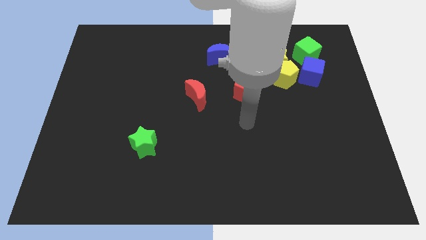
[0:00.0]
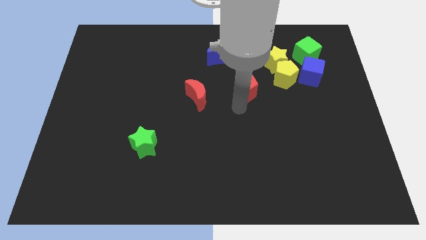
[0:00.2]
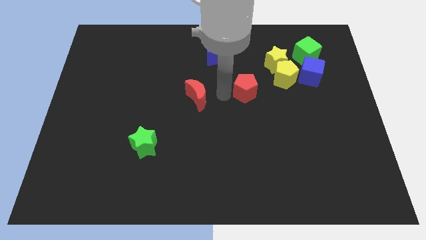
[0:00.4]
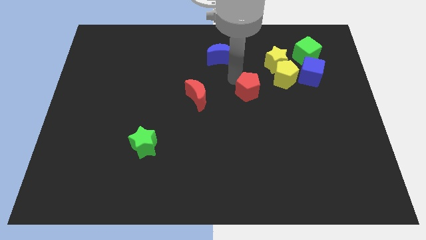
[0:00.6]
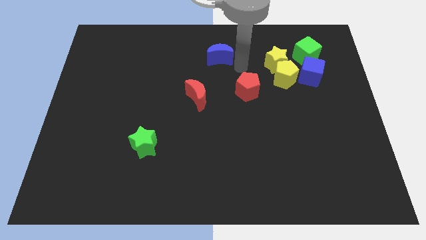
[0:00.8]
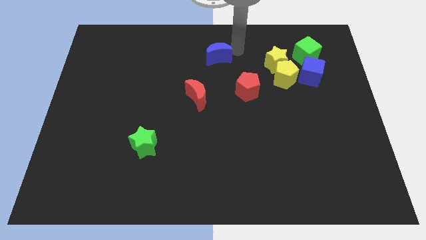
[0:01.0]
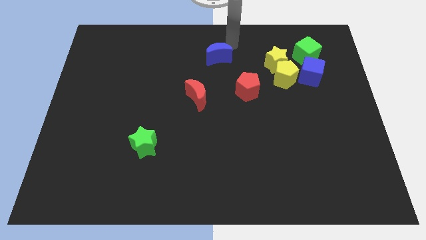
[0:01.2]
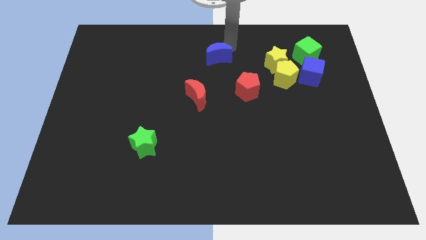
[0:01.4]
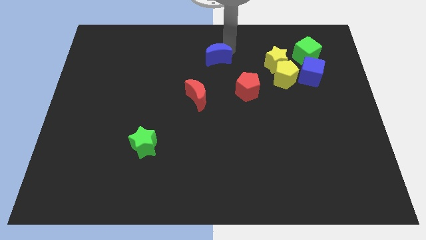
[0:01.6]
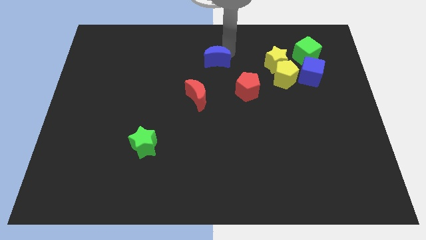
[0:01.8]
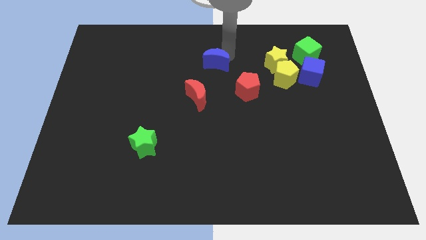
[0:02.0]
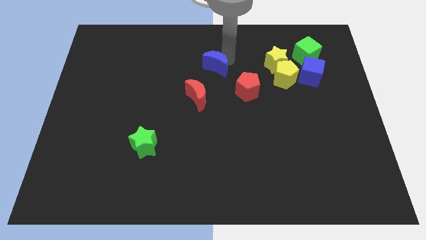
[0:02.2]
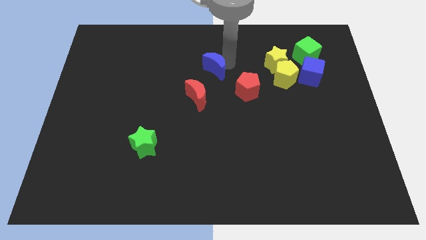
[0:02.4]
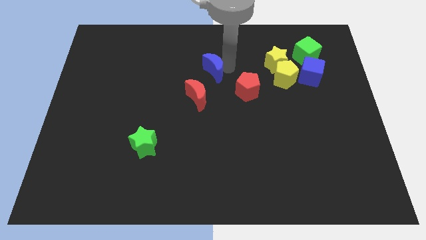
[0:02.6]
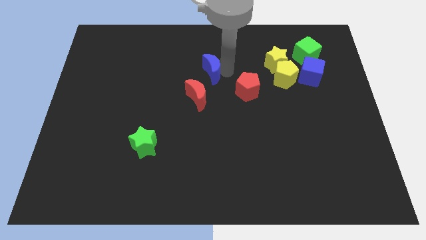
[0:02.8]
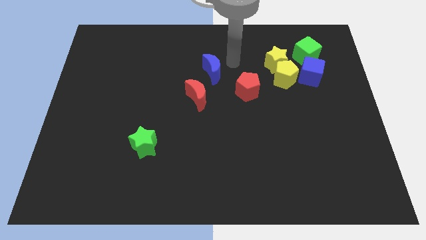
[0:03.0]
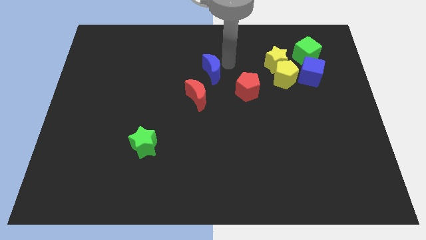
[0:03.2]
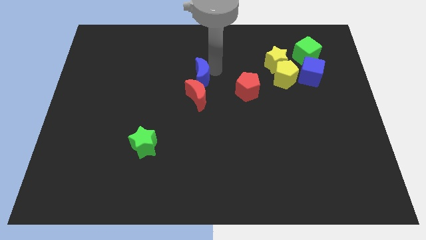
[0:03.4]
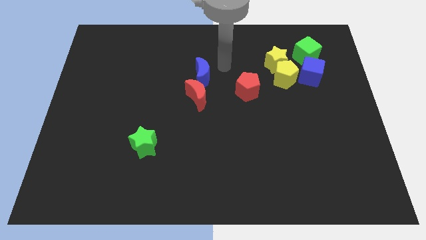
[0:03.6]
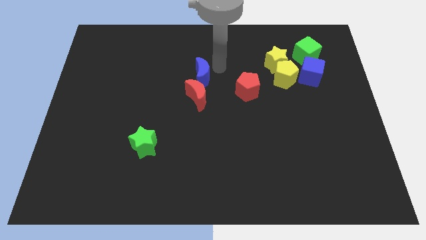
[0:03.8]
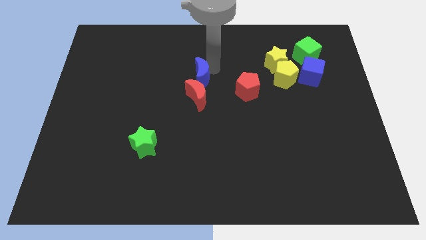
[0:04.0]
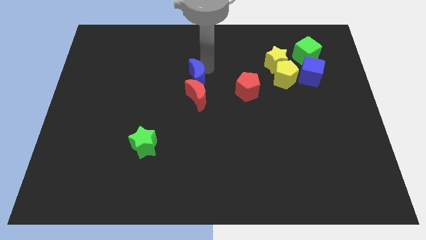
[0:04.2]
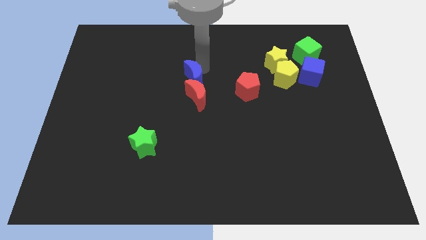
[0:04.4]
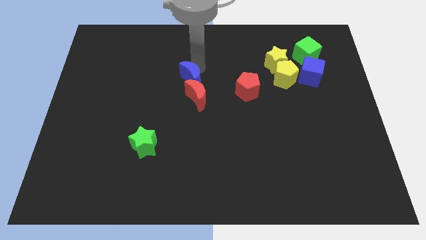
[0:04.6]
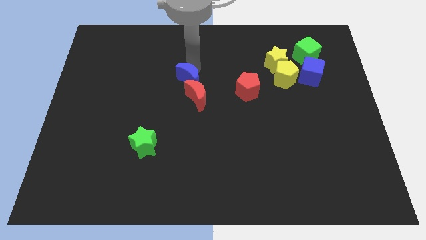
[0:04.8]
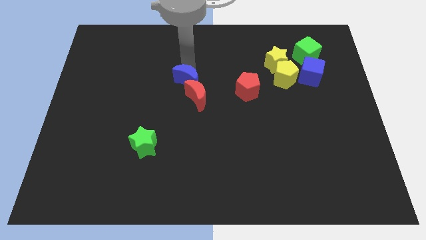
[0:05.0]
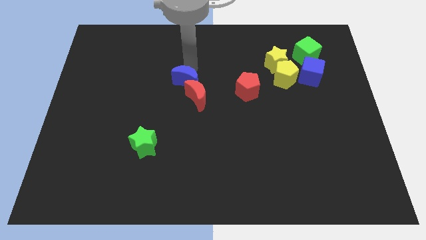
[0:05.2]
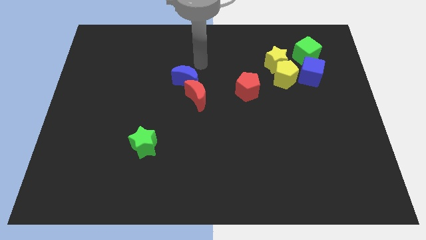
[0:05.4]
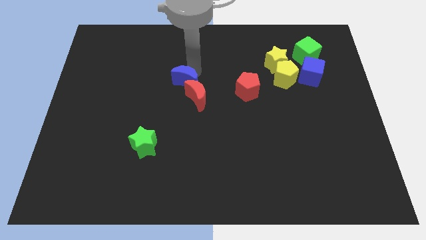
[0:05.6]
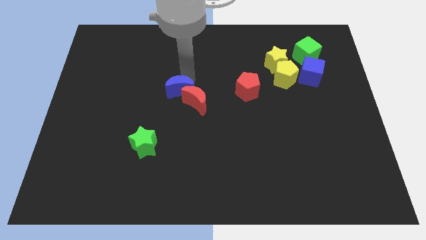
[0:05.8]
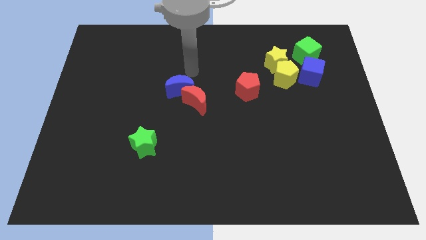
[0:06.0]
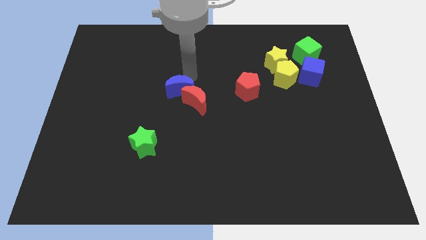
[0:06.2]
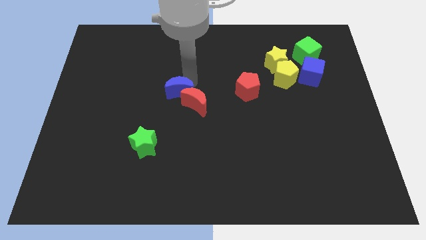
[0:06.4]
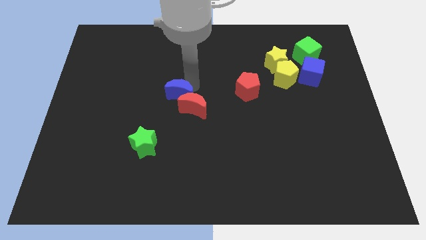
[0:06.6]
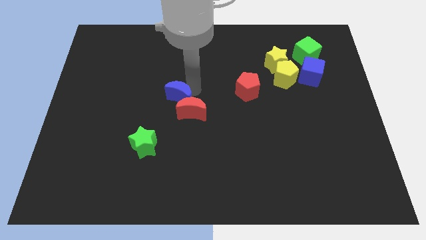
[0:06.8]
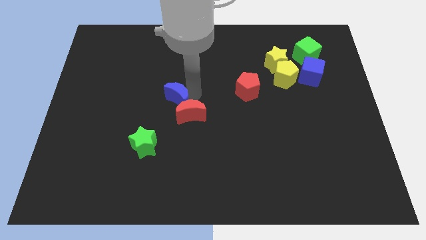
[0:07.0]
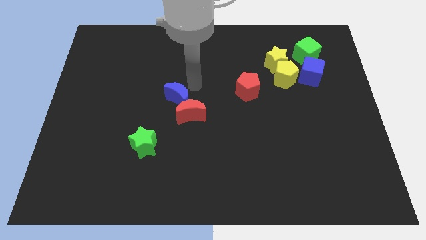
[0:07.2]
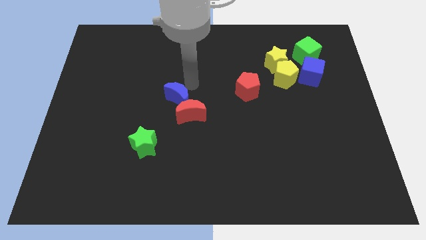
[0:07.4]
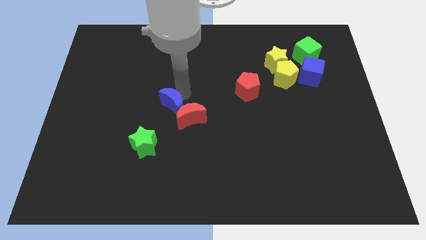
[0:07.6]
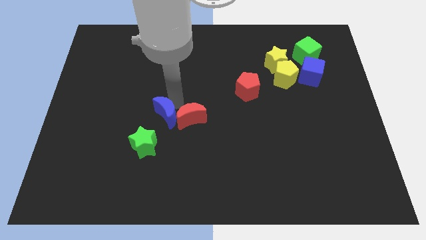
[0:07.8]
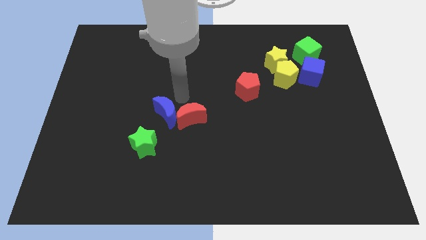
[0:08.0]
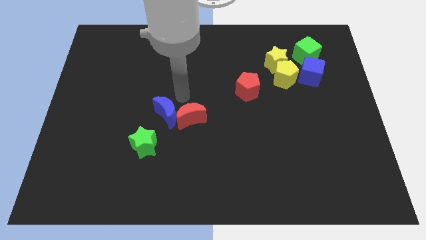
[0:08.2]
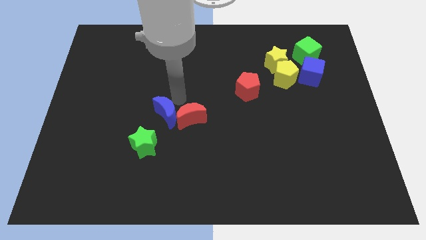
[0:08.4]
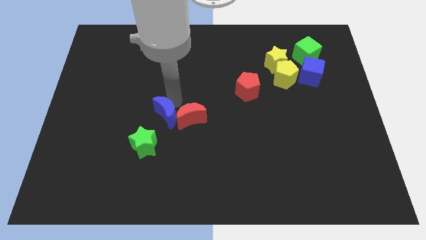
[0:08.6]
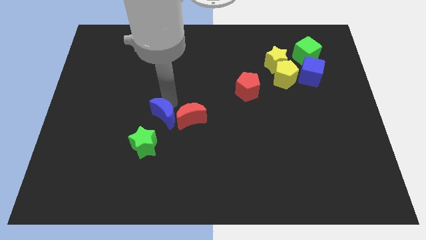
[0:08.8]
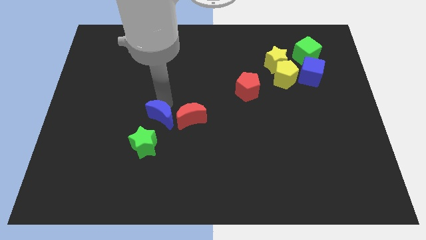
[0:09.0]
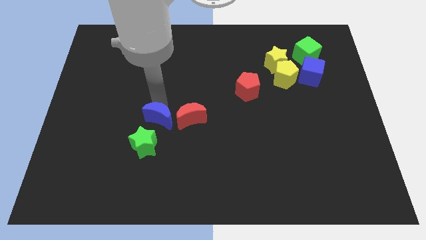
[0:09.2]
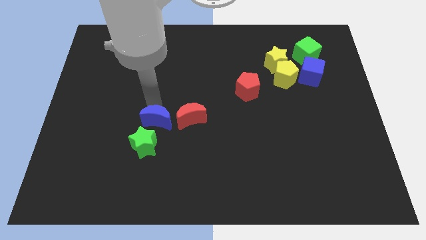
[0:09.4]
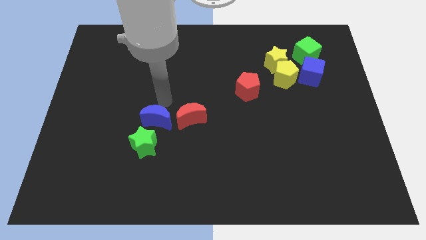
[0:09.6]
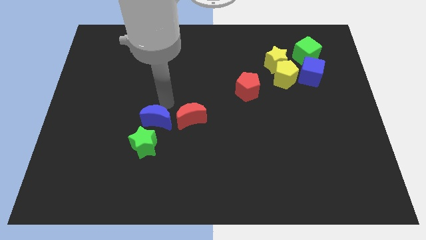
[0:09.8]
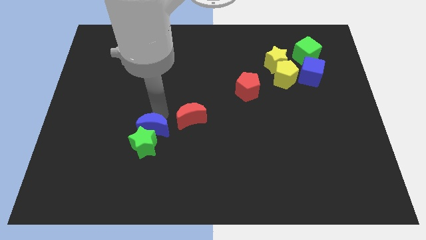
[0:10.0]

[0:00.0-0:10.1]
move the blue moon close to the green star

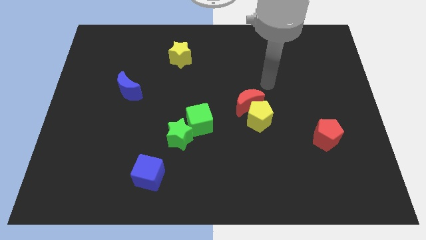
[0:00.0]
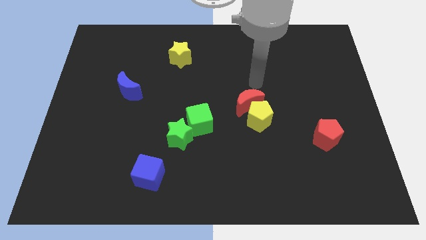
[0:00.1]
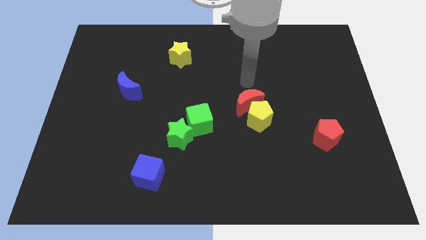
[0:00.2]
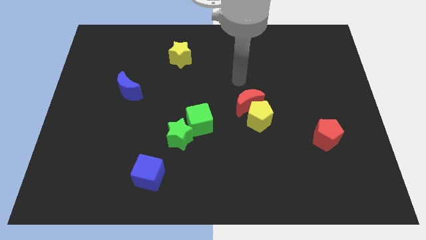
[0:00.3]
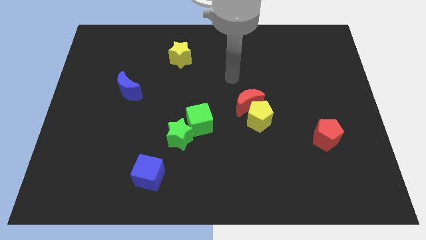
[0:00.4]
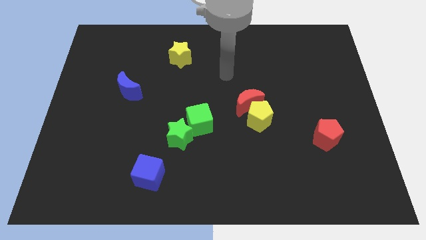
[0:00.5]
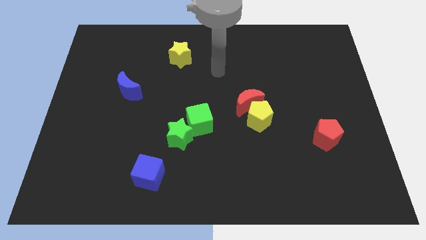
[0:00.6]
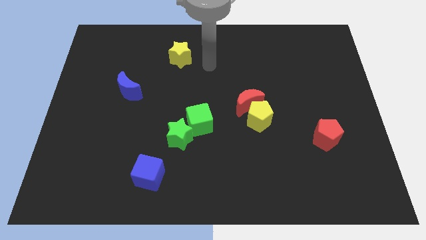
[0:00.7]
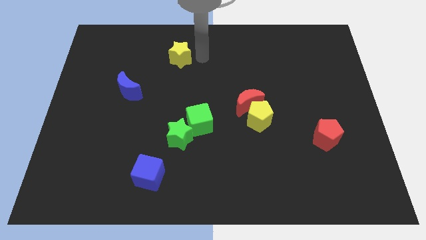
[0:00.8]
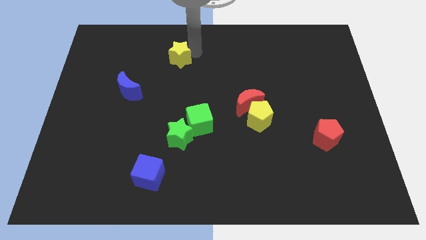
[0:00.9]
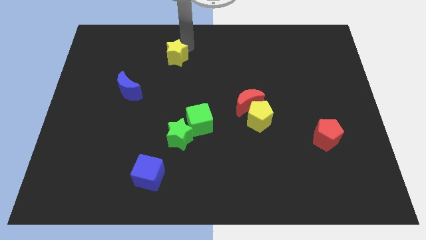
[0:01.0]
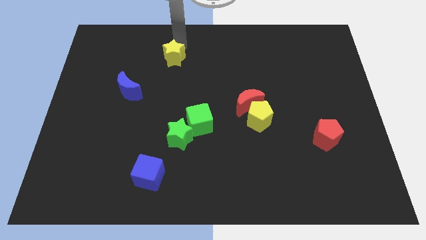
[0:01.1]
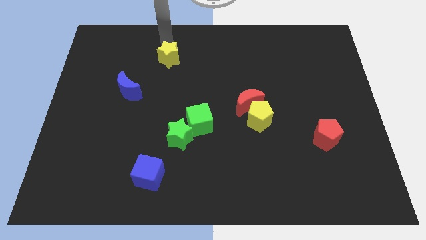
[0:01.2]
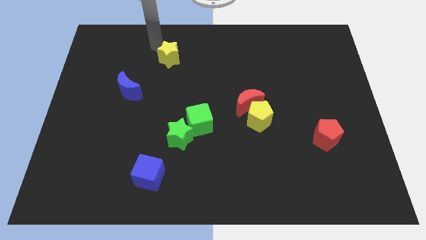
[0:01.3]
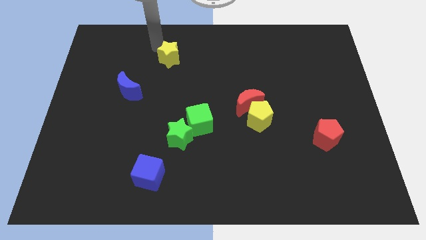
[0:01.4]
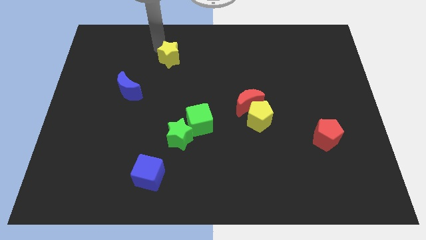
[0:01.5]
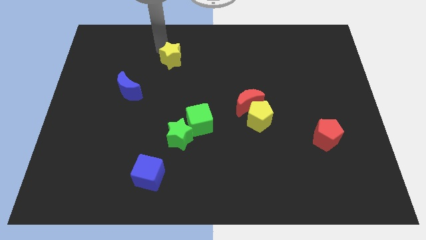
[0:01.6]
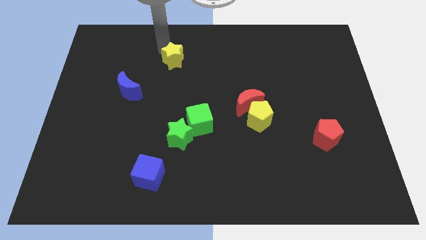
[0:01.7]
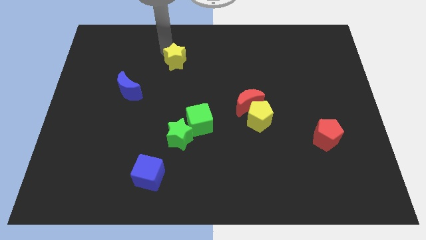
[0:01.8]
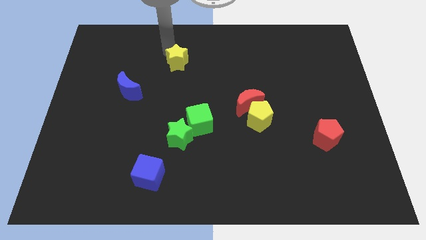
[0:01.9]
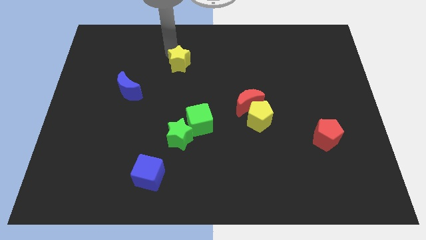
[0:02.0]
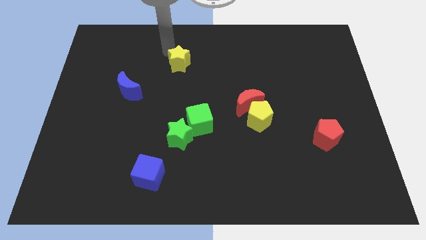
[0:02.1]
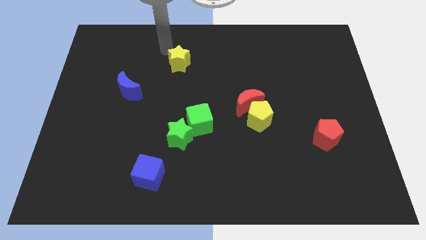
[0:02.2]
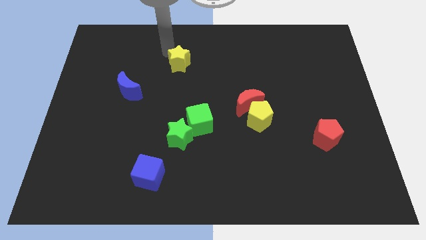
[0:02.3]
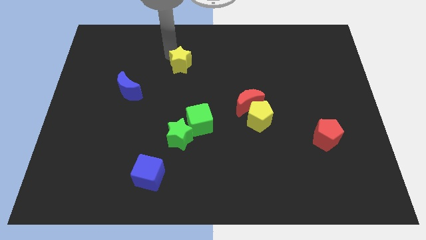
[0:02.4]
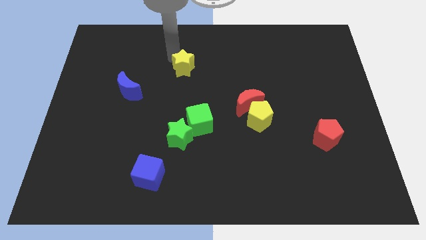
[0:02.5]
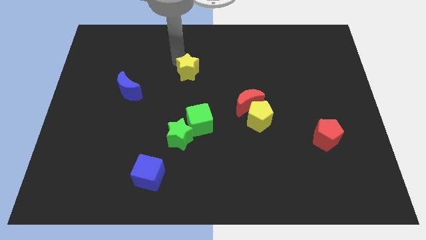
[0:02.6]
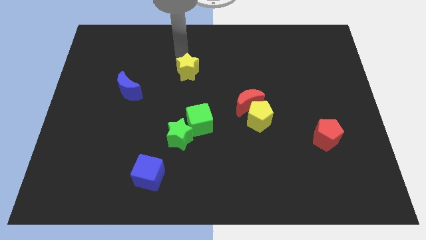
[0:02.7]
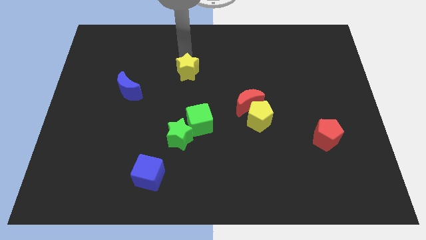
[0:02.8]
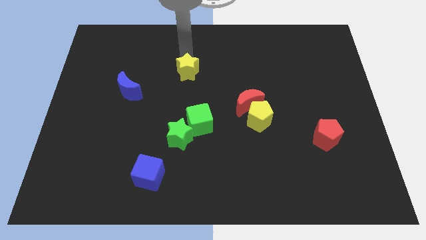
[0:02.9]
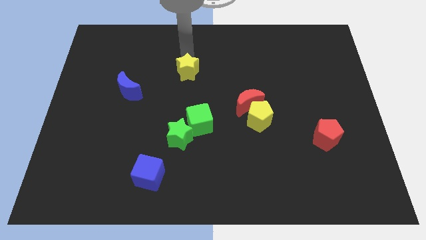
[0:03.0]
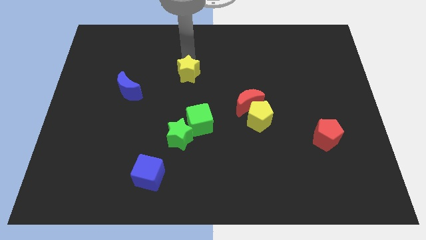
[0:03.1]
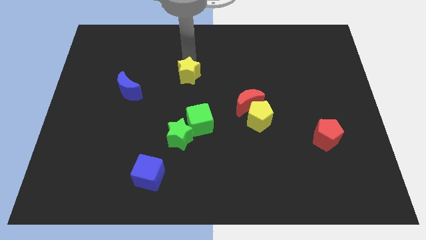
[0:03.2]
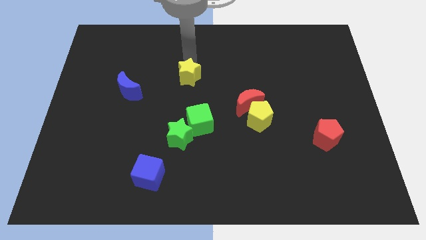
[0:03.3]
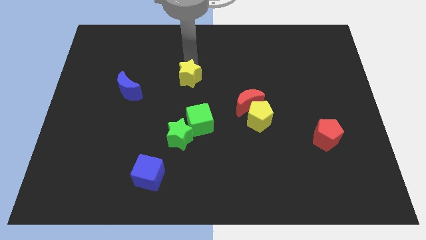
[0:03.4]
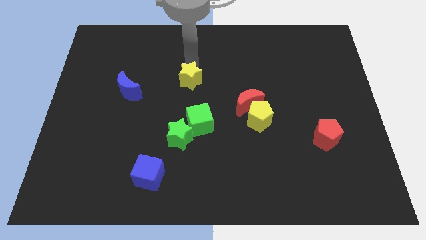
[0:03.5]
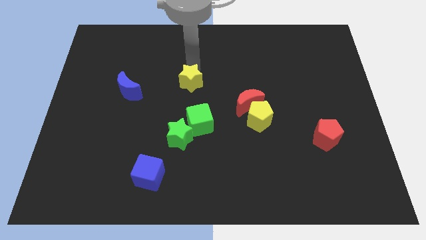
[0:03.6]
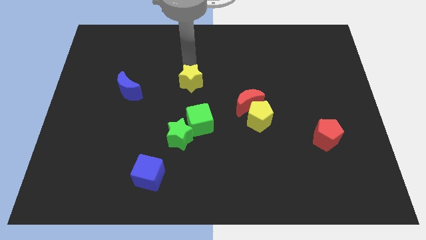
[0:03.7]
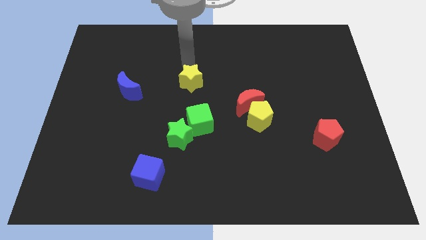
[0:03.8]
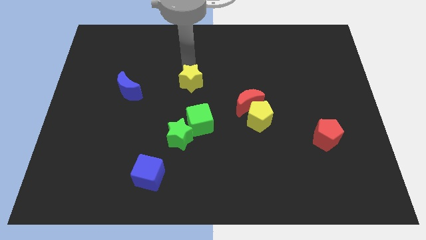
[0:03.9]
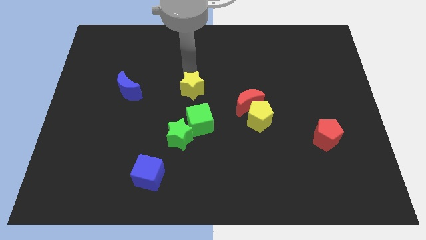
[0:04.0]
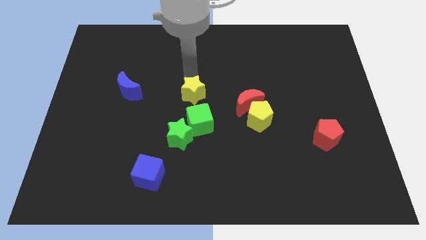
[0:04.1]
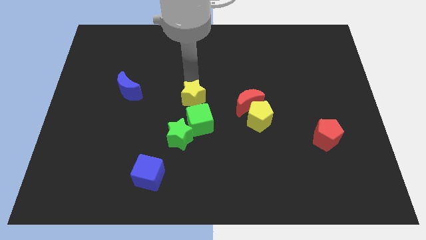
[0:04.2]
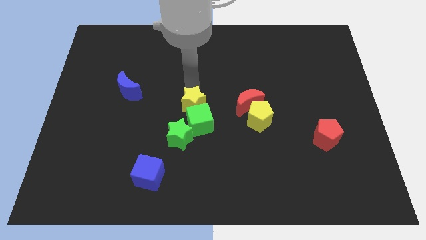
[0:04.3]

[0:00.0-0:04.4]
slide the yellow star close to the green cube
